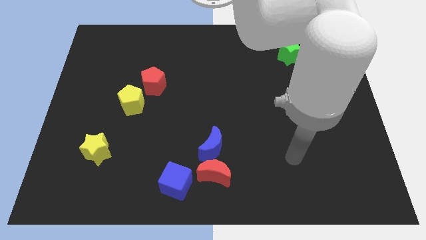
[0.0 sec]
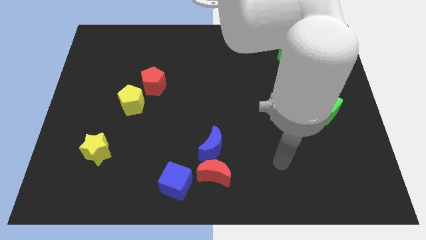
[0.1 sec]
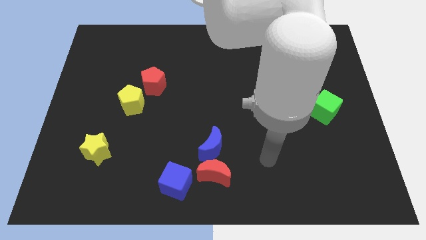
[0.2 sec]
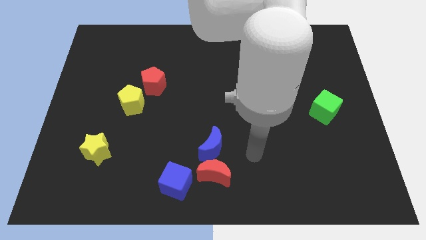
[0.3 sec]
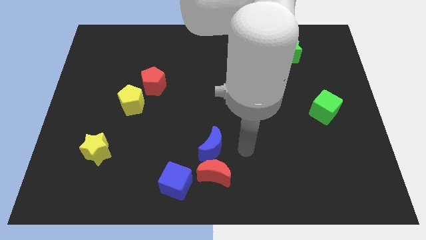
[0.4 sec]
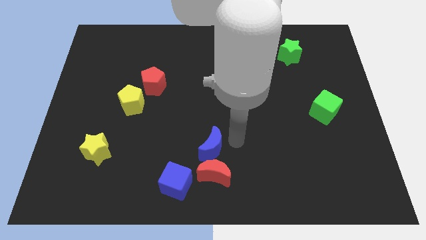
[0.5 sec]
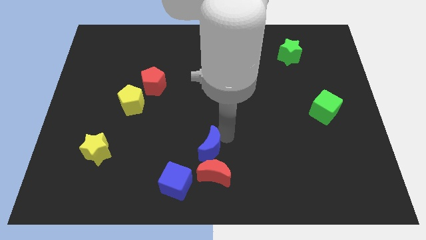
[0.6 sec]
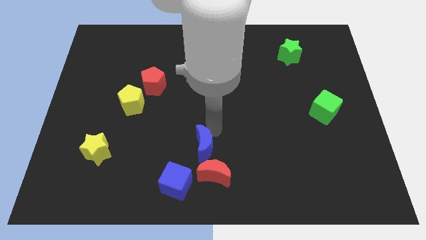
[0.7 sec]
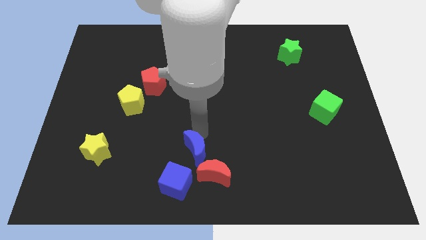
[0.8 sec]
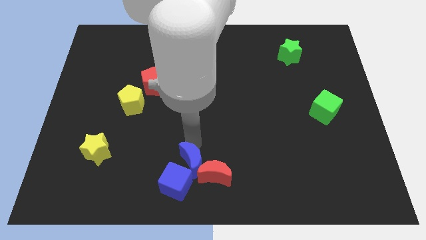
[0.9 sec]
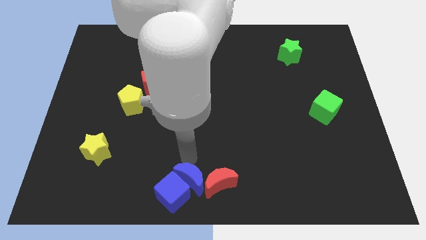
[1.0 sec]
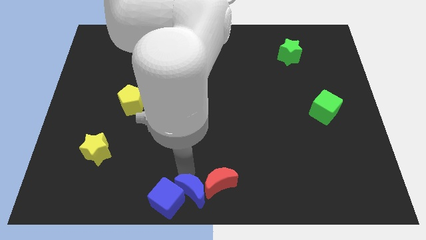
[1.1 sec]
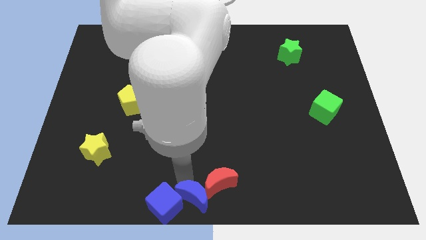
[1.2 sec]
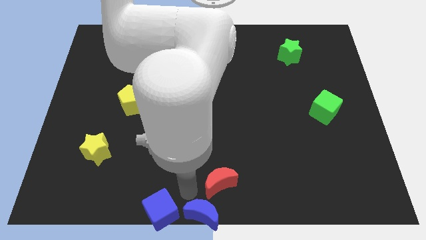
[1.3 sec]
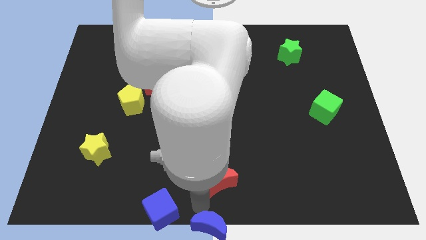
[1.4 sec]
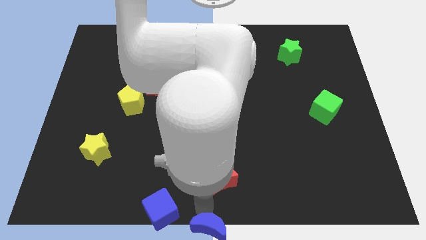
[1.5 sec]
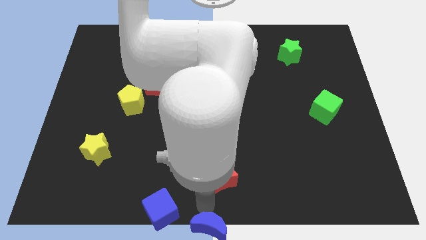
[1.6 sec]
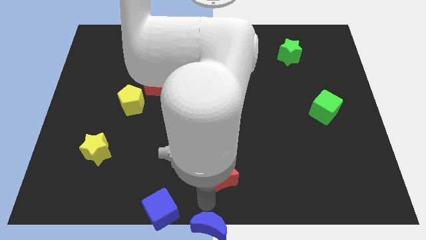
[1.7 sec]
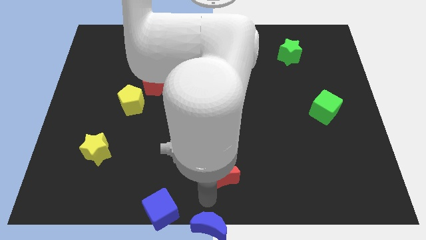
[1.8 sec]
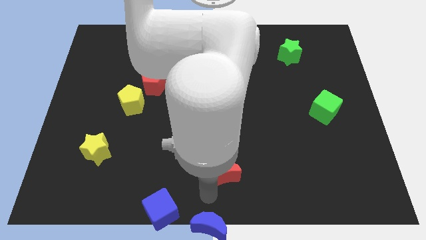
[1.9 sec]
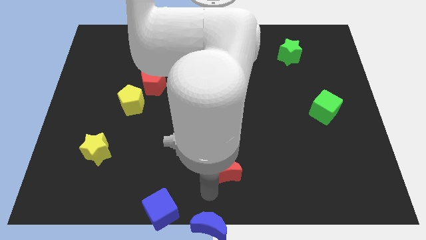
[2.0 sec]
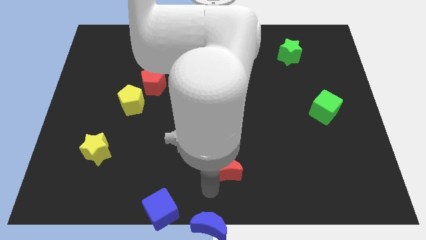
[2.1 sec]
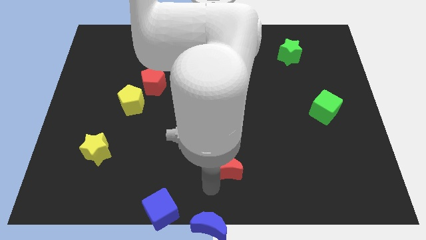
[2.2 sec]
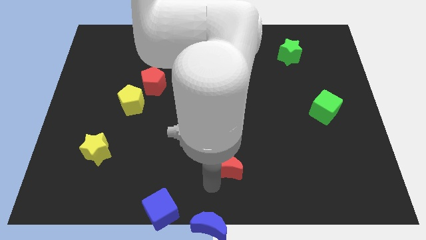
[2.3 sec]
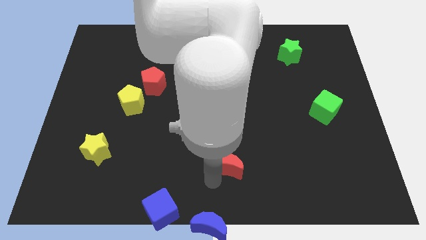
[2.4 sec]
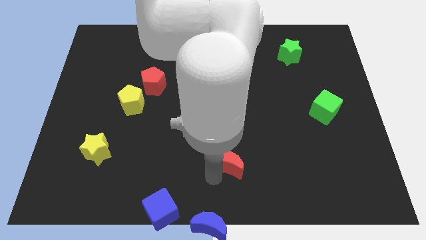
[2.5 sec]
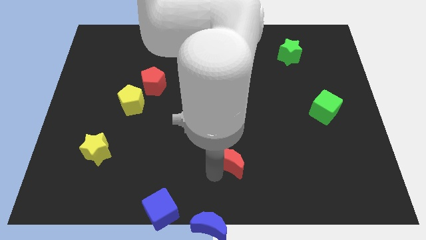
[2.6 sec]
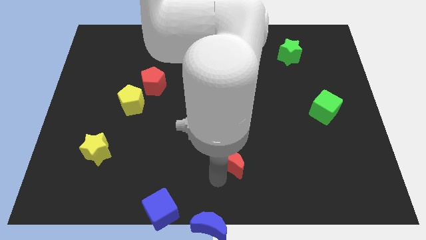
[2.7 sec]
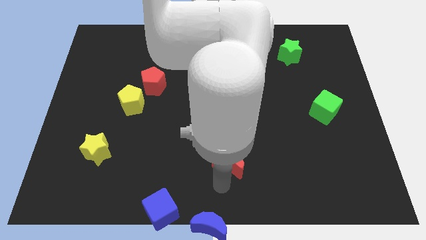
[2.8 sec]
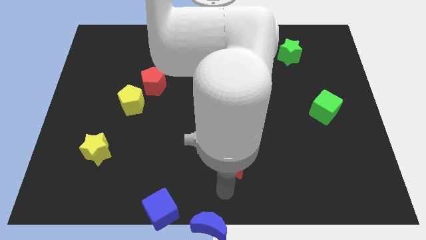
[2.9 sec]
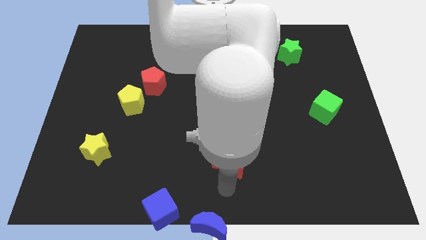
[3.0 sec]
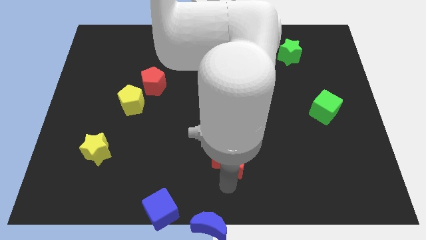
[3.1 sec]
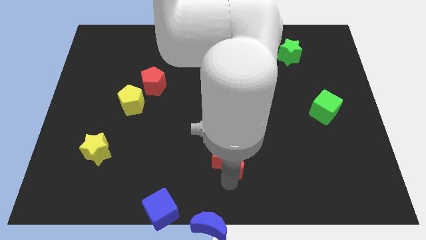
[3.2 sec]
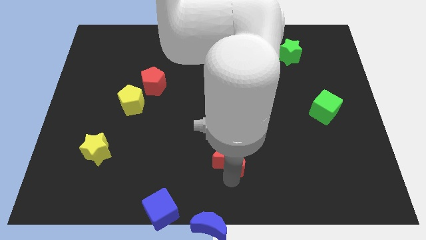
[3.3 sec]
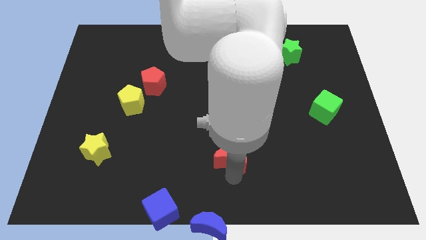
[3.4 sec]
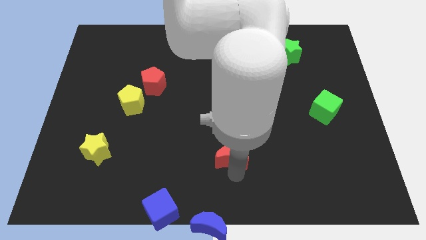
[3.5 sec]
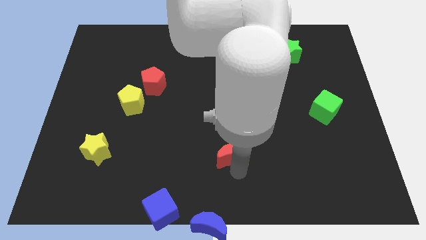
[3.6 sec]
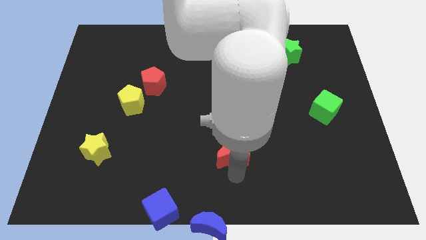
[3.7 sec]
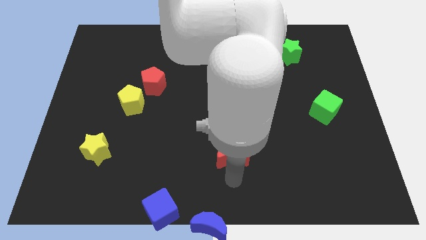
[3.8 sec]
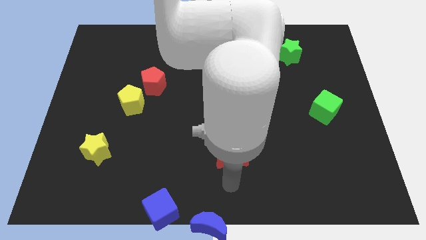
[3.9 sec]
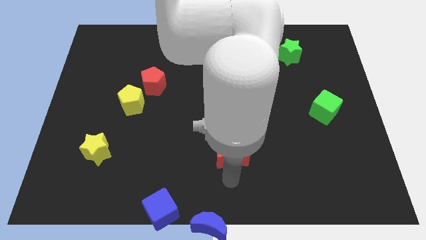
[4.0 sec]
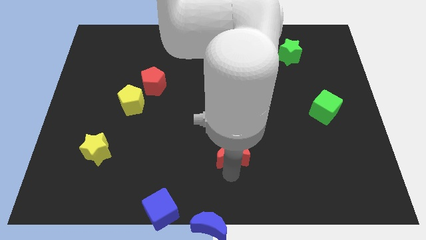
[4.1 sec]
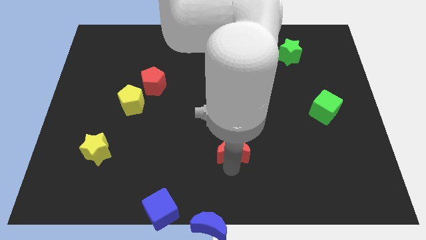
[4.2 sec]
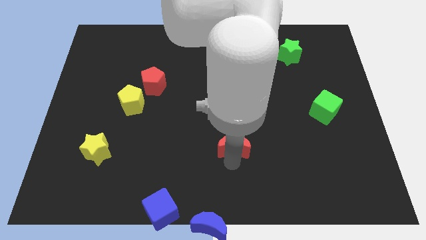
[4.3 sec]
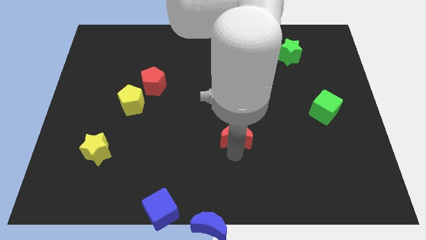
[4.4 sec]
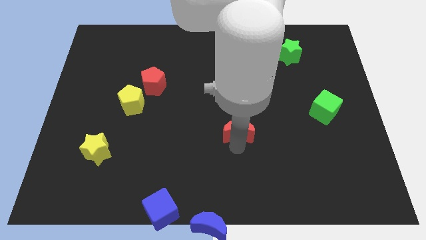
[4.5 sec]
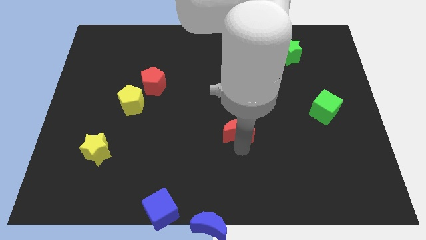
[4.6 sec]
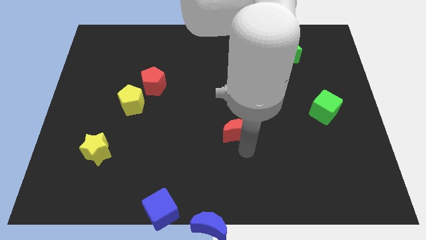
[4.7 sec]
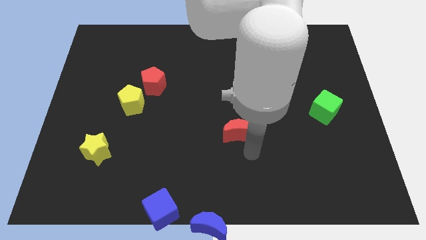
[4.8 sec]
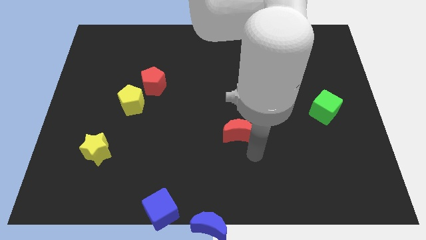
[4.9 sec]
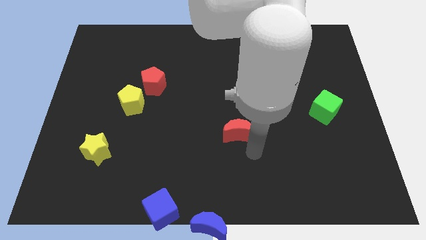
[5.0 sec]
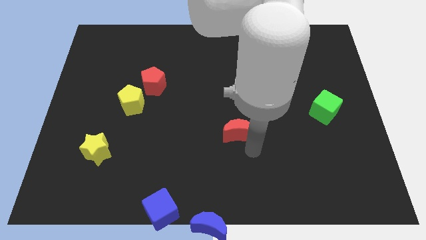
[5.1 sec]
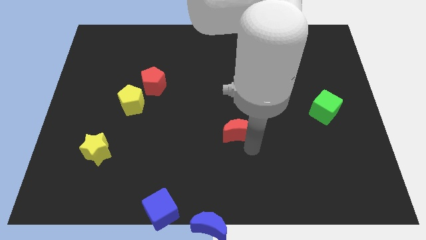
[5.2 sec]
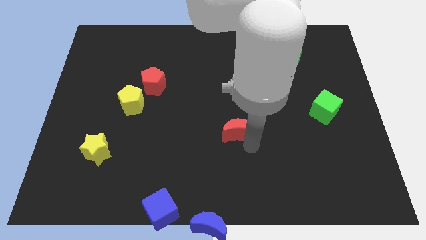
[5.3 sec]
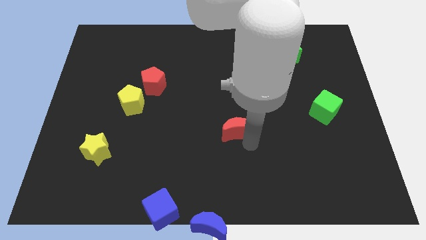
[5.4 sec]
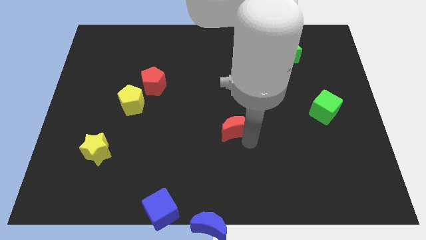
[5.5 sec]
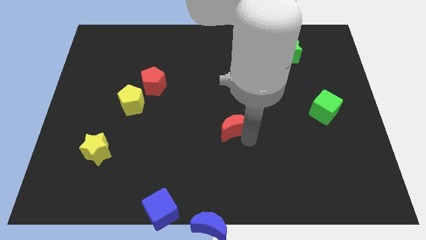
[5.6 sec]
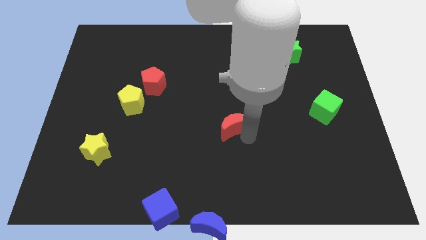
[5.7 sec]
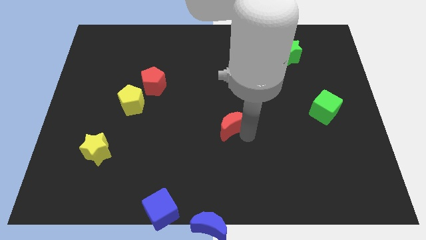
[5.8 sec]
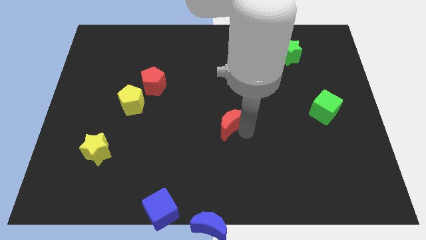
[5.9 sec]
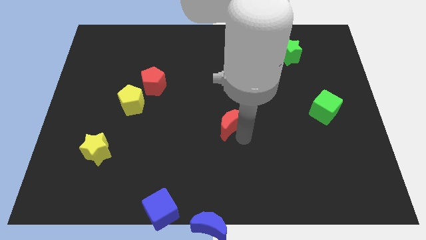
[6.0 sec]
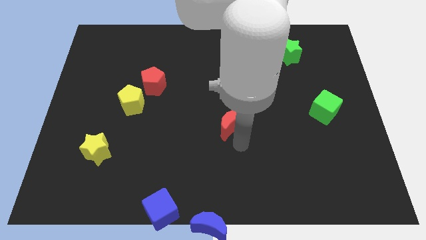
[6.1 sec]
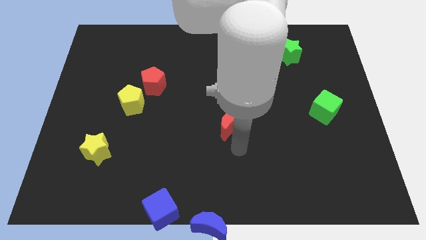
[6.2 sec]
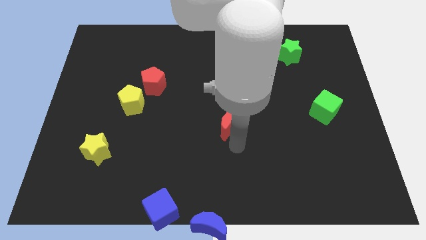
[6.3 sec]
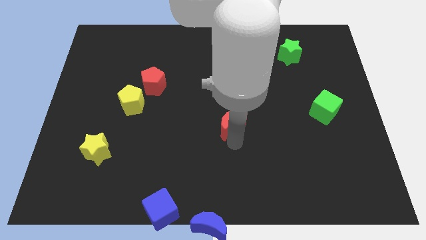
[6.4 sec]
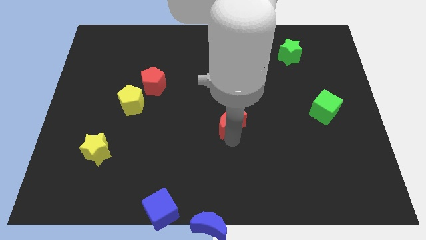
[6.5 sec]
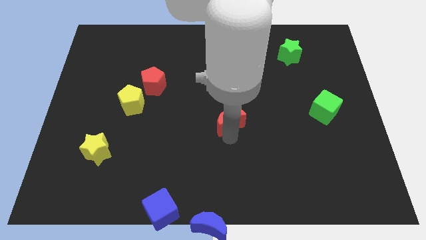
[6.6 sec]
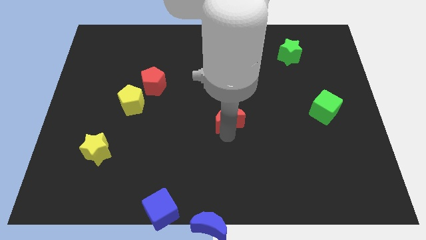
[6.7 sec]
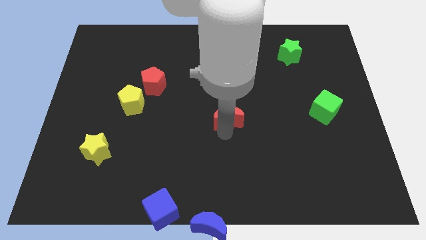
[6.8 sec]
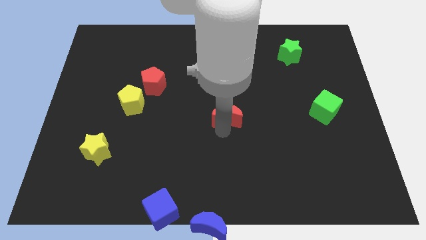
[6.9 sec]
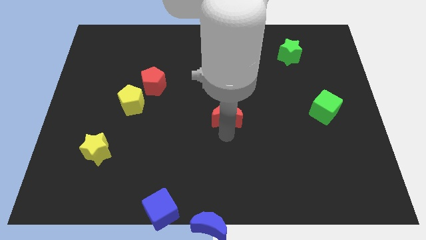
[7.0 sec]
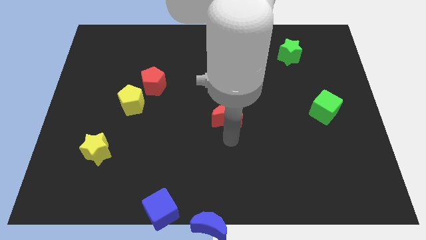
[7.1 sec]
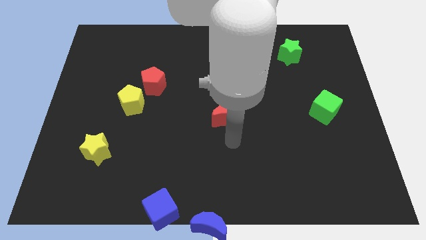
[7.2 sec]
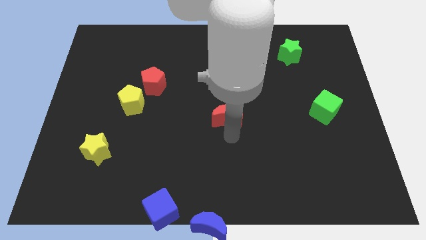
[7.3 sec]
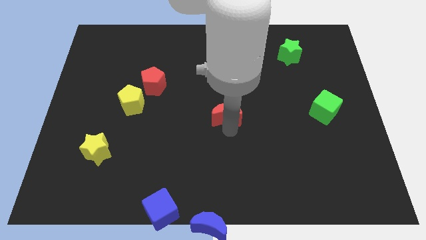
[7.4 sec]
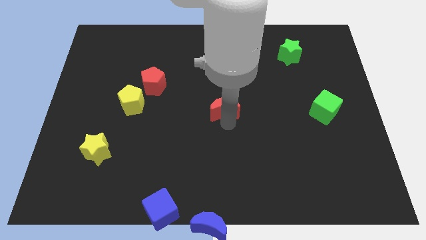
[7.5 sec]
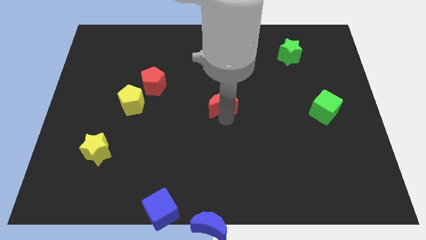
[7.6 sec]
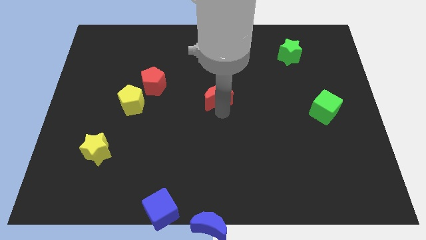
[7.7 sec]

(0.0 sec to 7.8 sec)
push the red moon upwards
